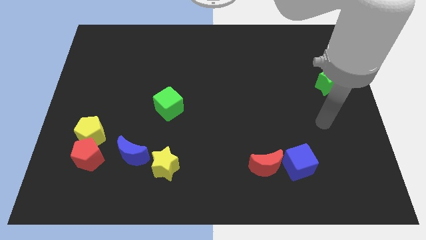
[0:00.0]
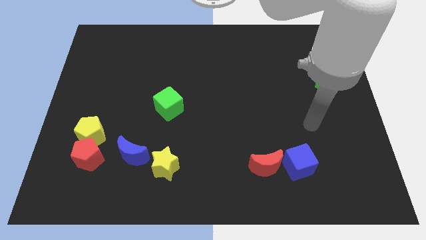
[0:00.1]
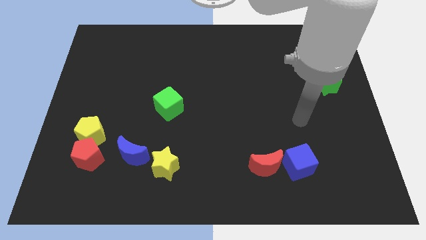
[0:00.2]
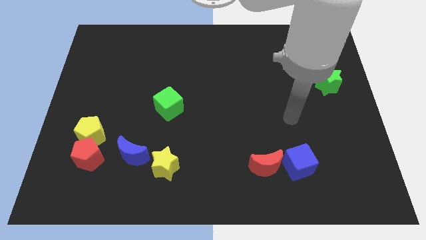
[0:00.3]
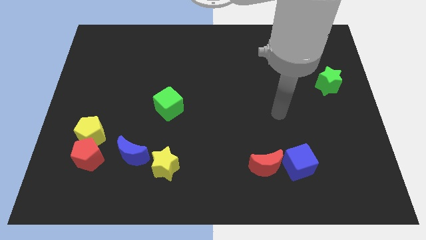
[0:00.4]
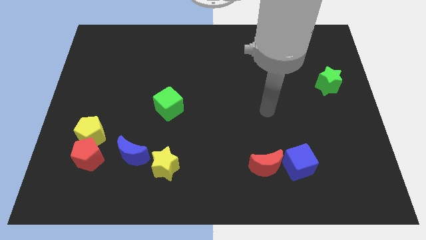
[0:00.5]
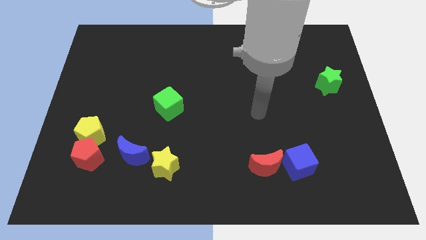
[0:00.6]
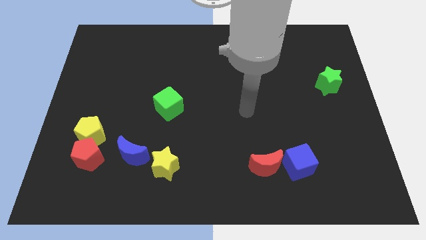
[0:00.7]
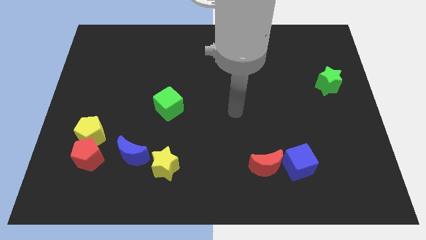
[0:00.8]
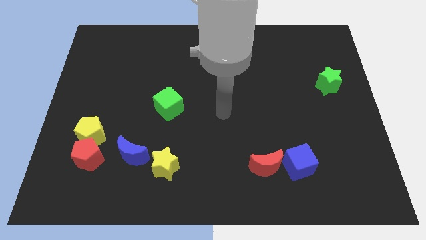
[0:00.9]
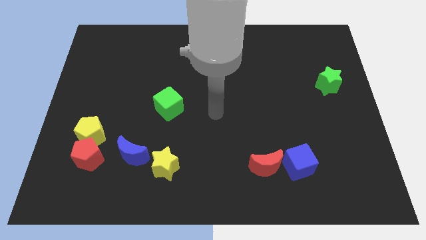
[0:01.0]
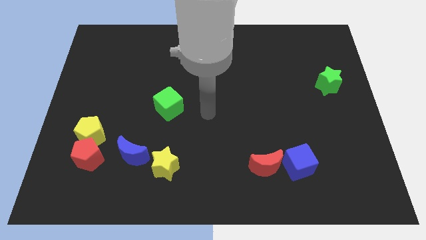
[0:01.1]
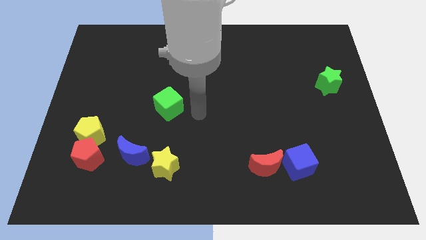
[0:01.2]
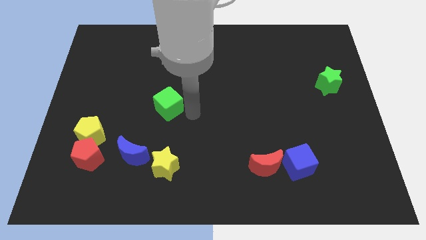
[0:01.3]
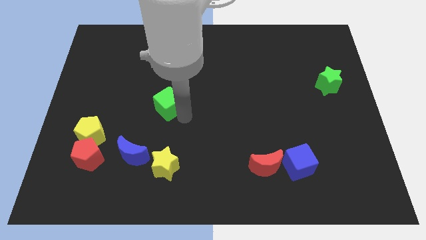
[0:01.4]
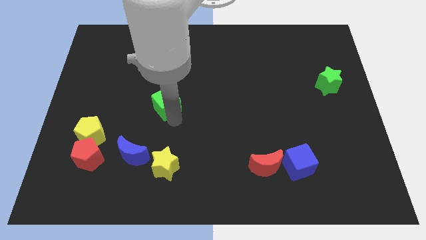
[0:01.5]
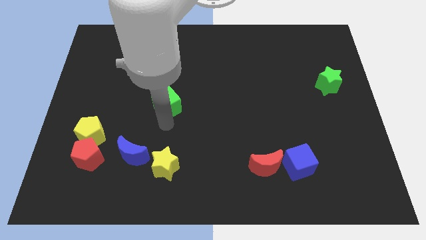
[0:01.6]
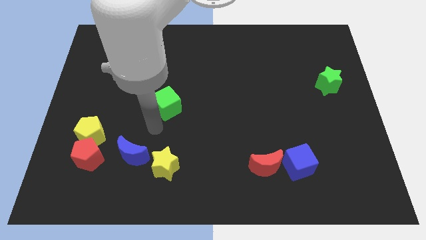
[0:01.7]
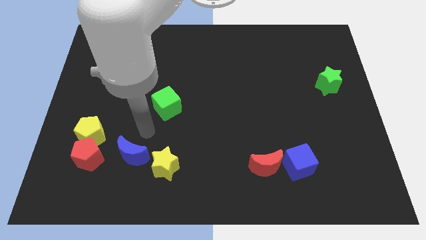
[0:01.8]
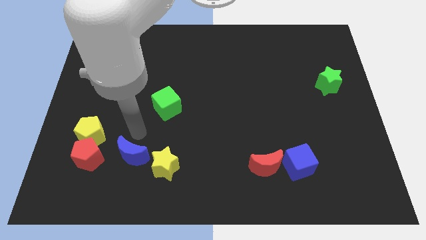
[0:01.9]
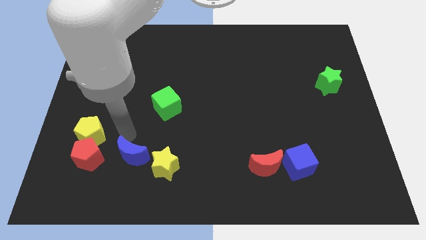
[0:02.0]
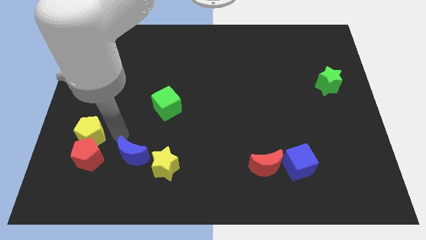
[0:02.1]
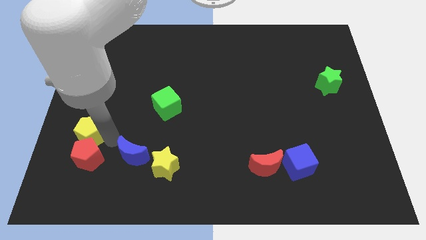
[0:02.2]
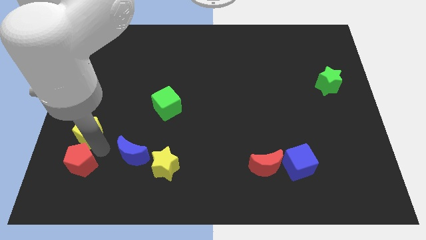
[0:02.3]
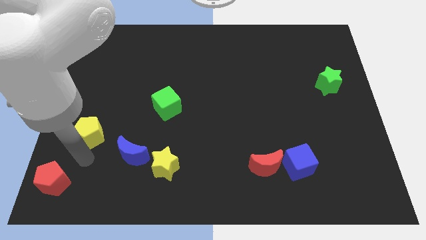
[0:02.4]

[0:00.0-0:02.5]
separate the yellow pentagon from the red pentagon

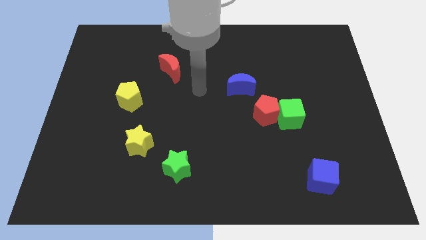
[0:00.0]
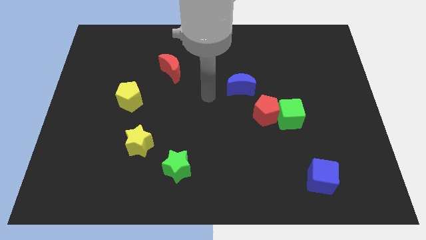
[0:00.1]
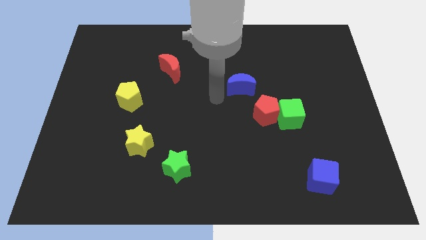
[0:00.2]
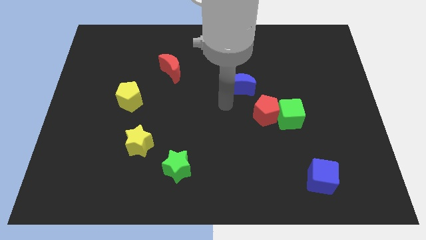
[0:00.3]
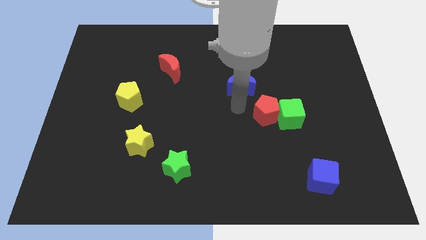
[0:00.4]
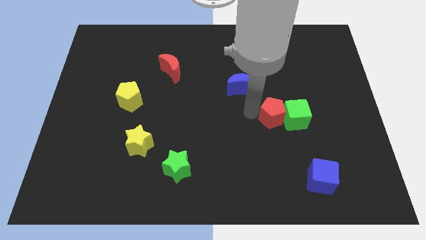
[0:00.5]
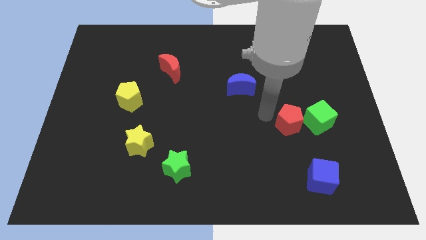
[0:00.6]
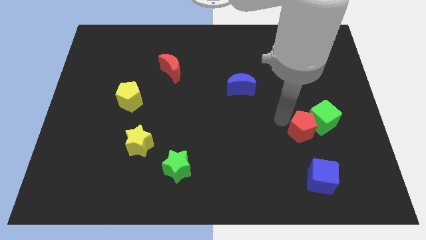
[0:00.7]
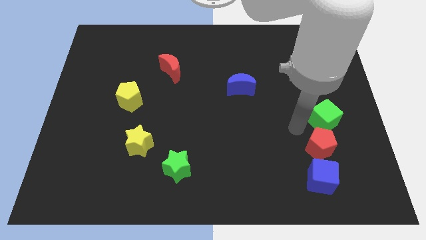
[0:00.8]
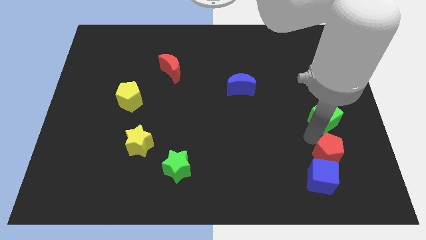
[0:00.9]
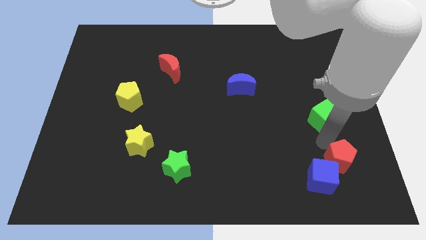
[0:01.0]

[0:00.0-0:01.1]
separate the green cube from the red pentagon

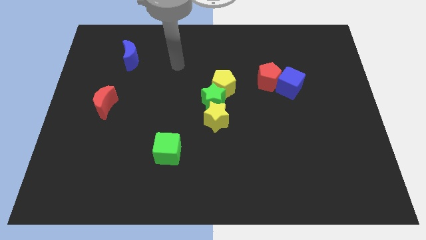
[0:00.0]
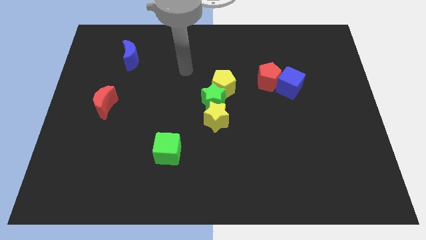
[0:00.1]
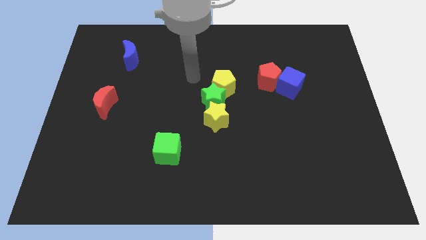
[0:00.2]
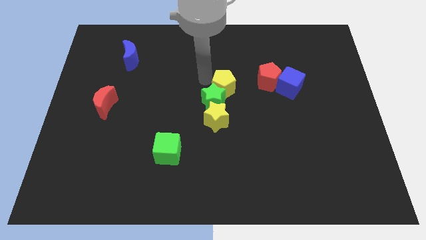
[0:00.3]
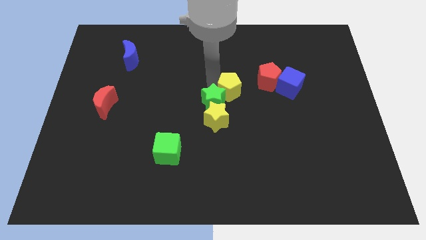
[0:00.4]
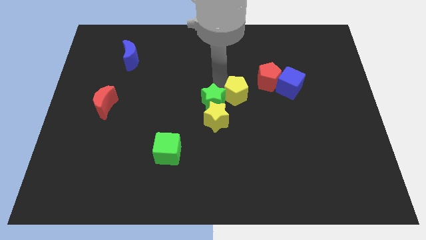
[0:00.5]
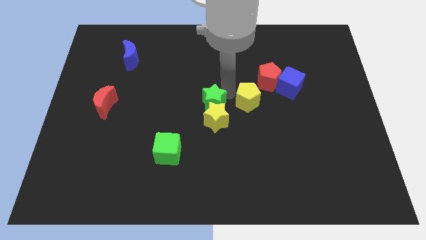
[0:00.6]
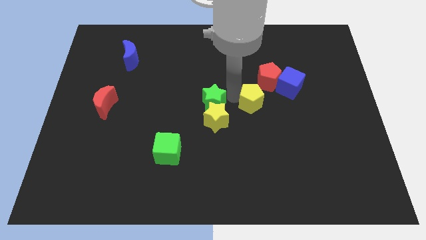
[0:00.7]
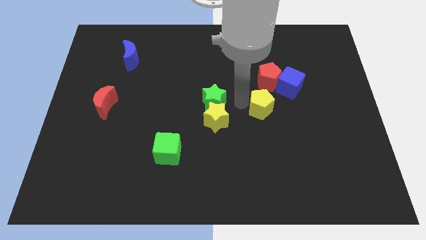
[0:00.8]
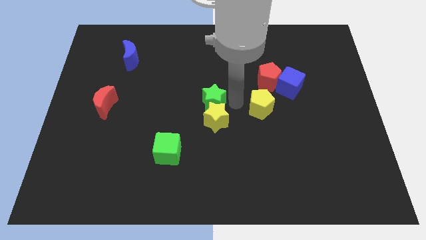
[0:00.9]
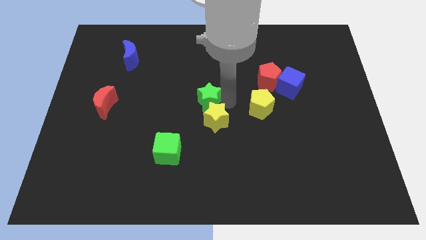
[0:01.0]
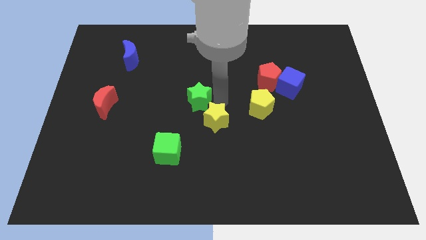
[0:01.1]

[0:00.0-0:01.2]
pull the green star apart from the yellow pentagon and yellow star

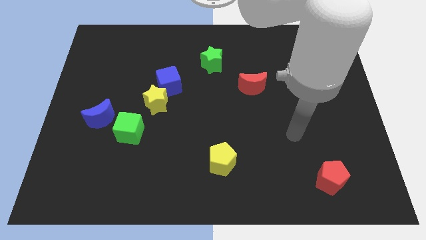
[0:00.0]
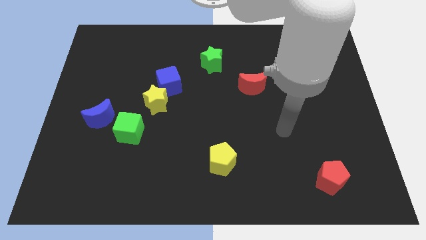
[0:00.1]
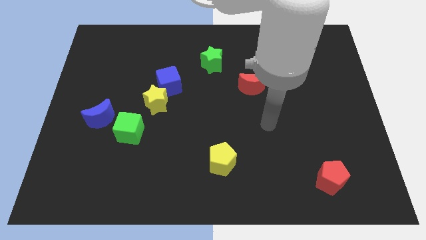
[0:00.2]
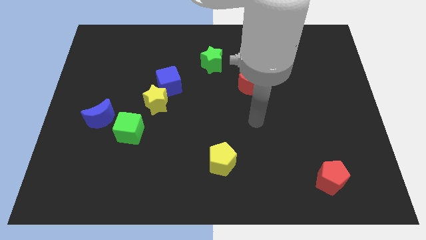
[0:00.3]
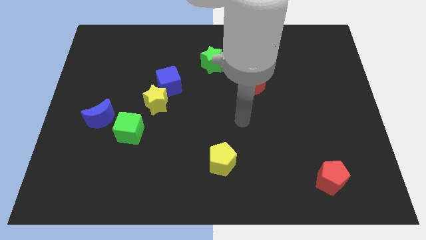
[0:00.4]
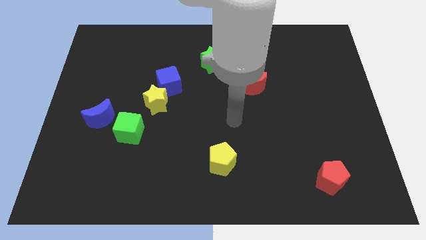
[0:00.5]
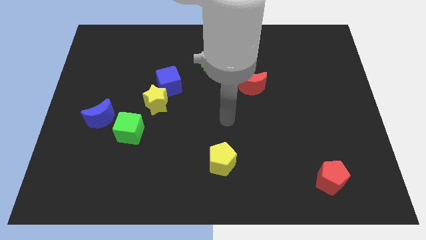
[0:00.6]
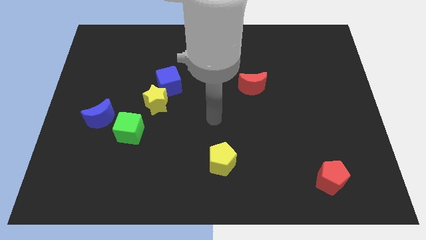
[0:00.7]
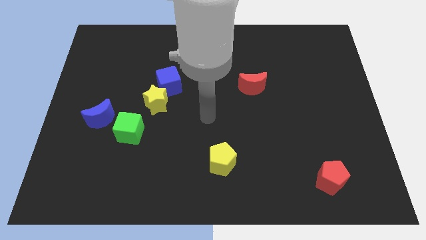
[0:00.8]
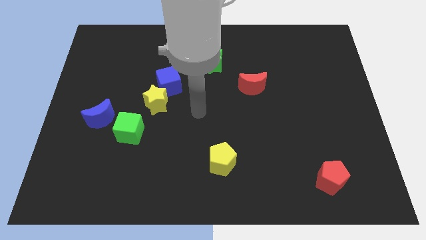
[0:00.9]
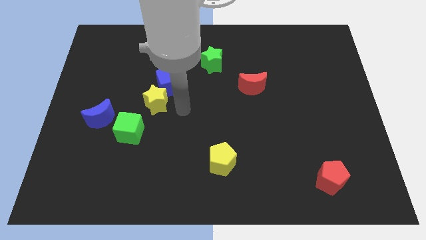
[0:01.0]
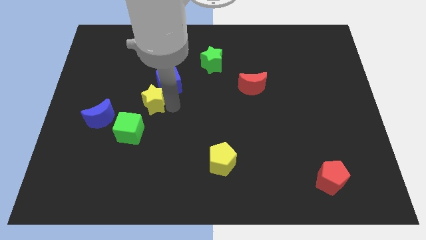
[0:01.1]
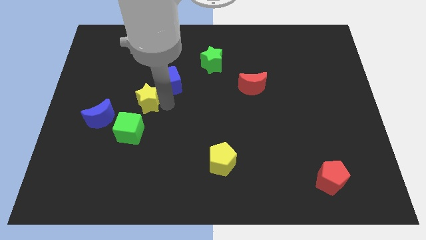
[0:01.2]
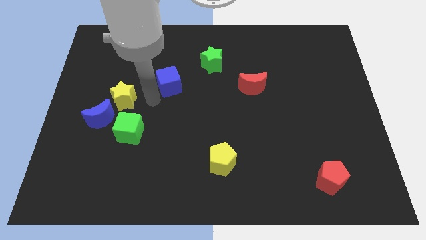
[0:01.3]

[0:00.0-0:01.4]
pull the blue cube apart from the yellow star

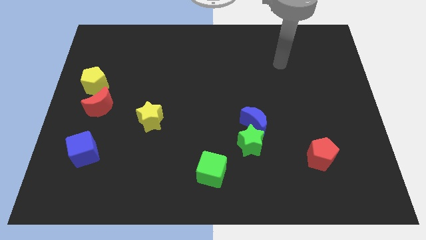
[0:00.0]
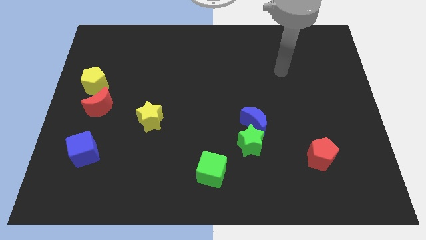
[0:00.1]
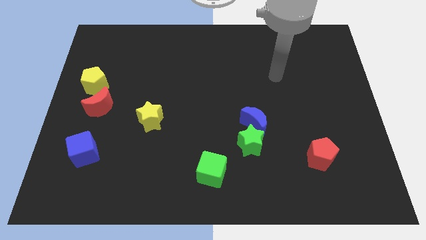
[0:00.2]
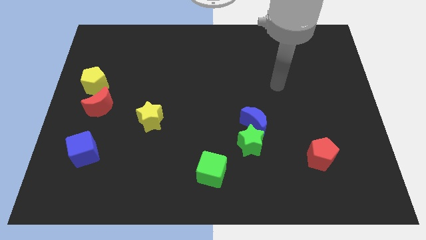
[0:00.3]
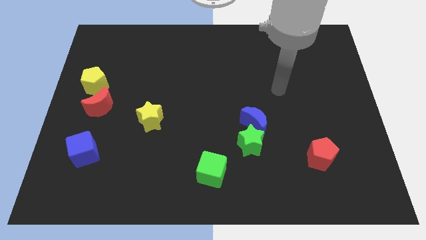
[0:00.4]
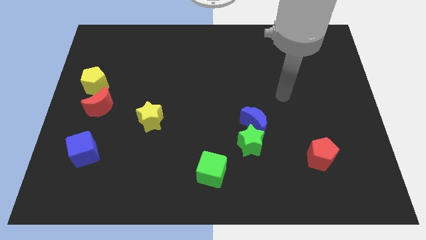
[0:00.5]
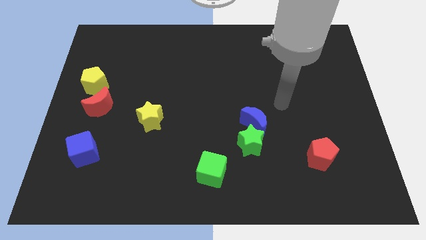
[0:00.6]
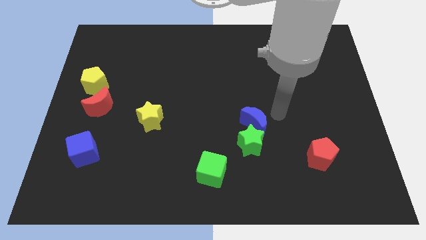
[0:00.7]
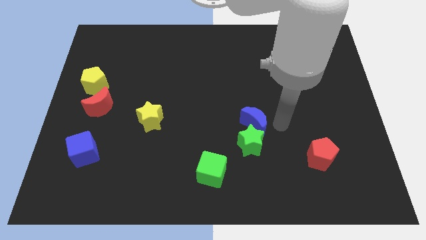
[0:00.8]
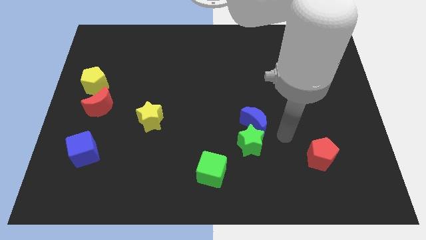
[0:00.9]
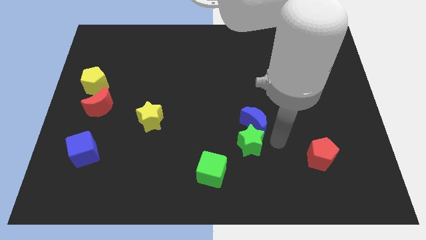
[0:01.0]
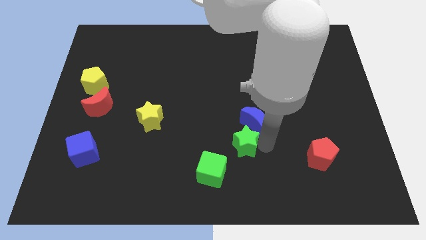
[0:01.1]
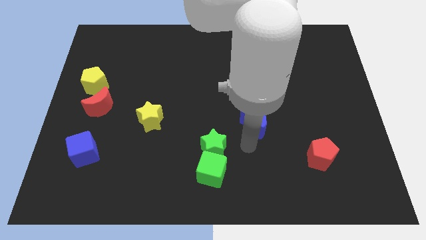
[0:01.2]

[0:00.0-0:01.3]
move the blue moon away from the green star

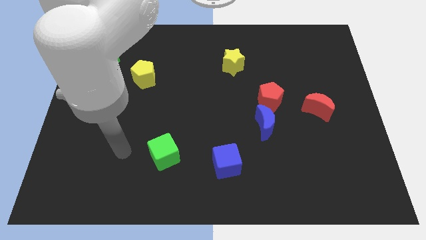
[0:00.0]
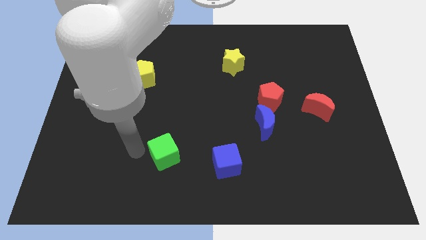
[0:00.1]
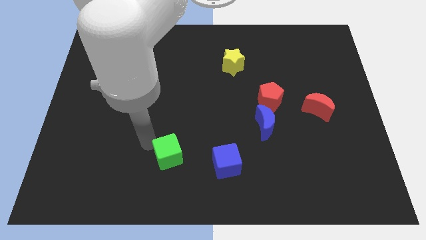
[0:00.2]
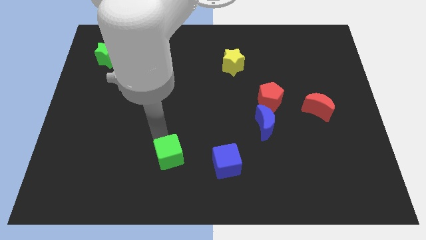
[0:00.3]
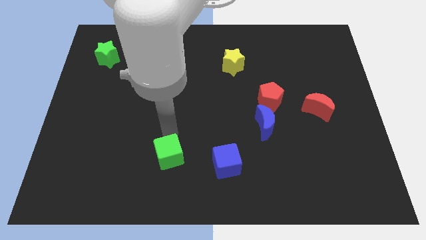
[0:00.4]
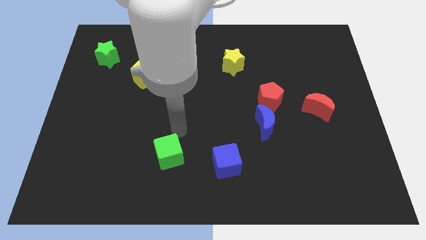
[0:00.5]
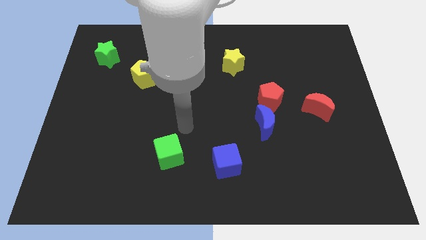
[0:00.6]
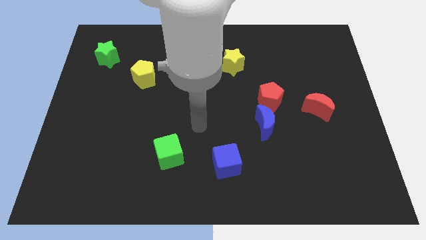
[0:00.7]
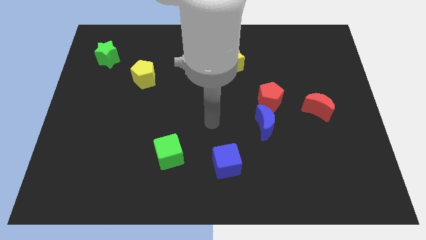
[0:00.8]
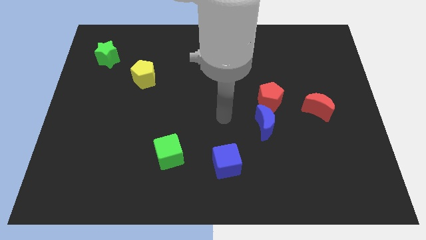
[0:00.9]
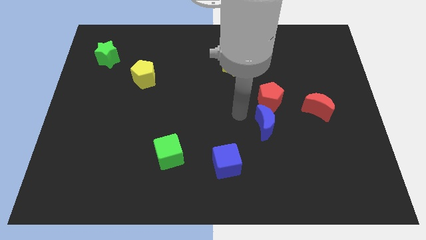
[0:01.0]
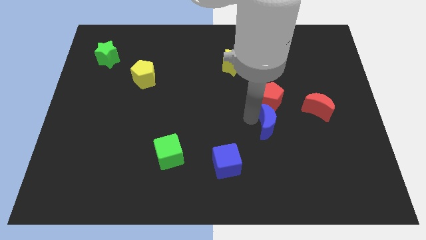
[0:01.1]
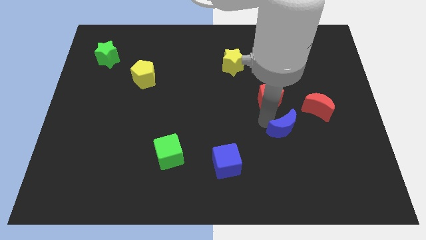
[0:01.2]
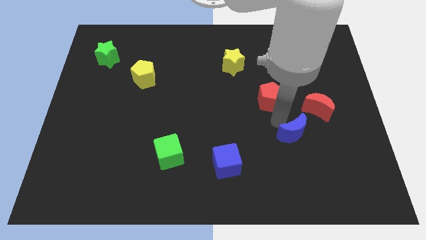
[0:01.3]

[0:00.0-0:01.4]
move the red pentagon away from the blue moon

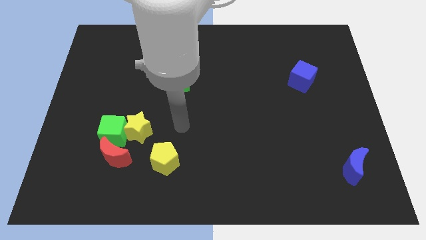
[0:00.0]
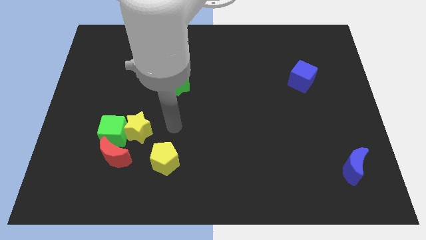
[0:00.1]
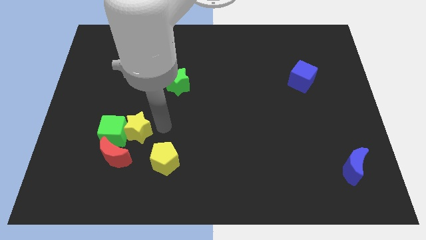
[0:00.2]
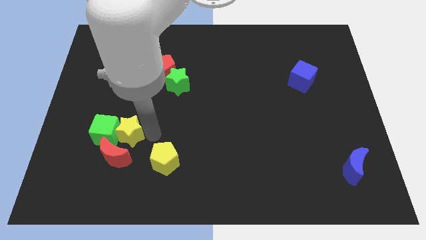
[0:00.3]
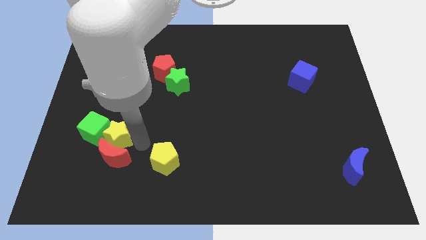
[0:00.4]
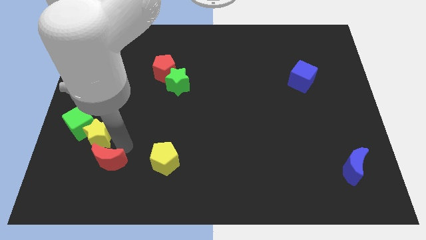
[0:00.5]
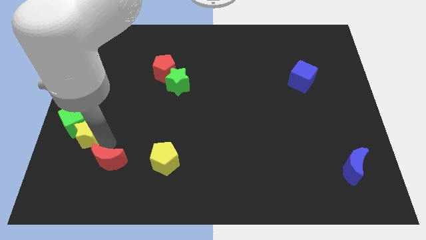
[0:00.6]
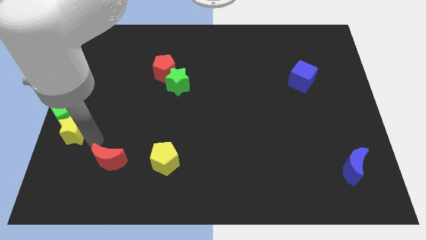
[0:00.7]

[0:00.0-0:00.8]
pull the green cube apart from the yellow star and red moon
